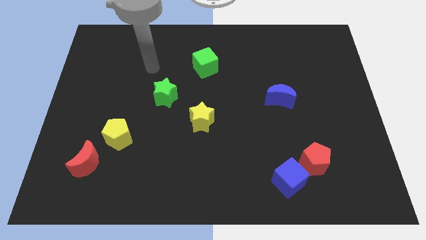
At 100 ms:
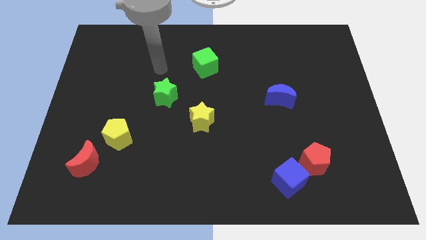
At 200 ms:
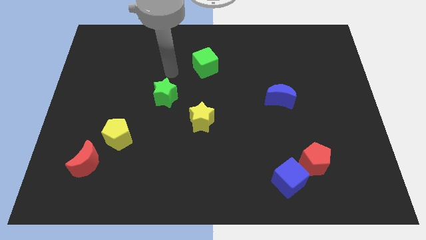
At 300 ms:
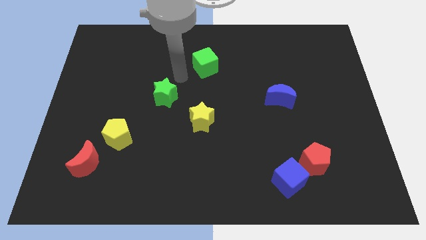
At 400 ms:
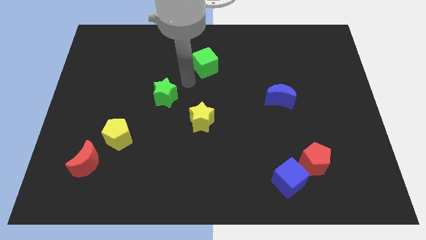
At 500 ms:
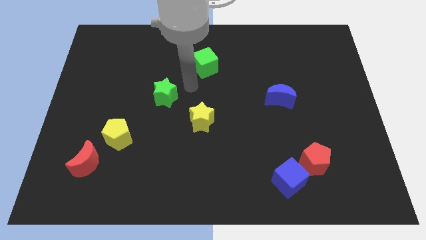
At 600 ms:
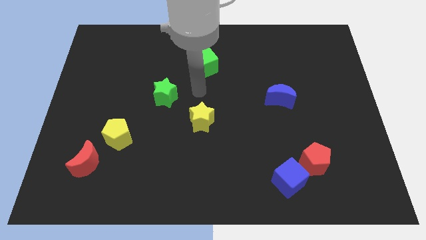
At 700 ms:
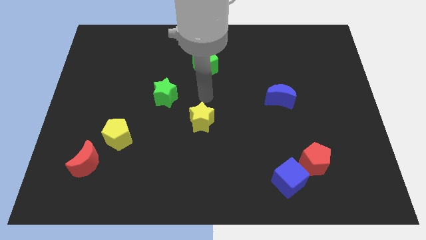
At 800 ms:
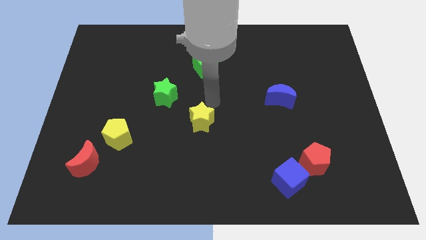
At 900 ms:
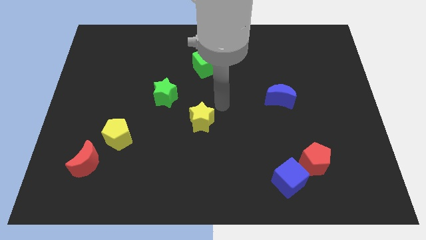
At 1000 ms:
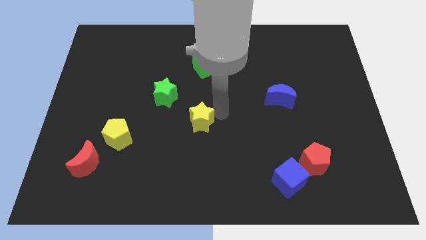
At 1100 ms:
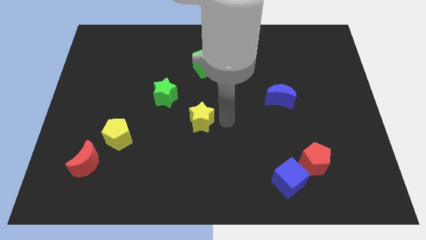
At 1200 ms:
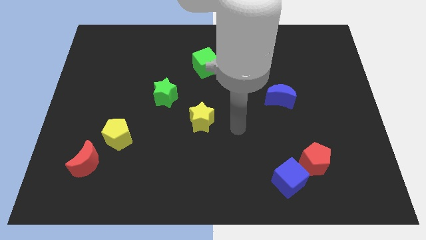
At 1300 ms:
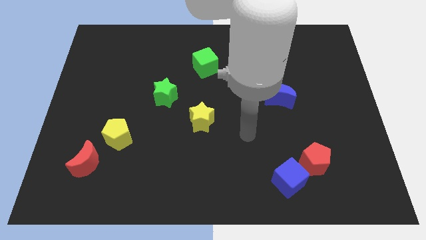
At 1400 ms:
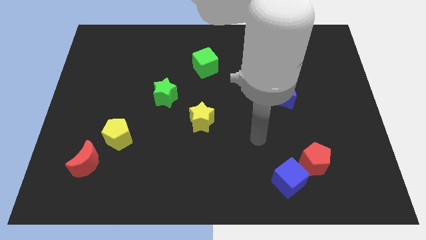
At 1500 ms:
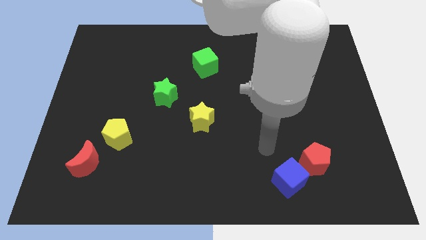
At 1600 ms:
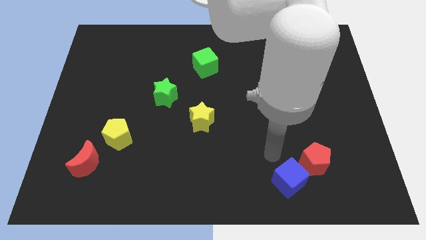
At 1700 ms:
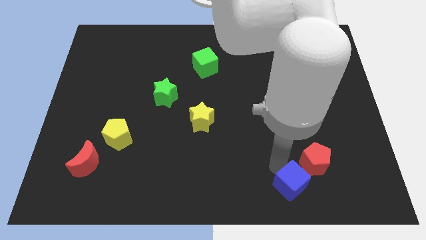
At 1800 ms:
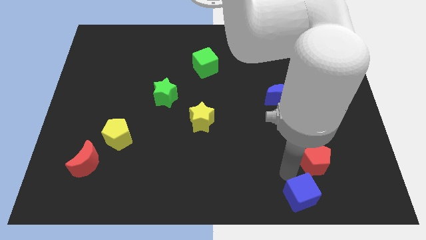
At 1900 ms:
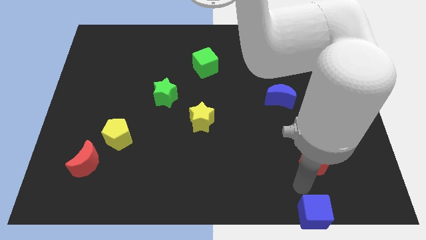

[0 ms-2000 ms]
pull the red pentagon apart from the blue cube

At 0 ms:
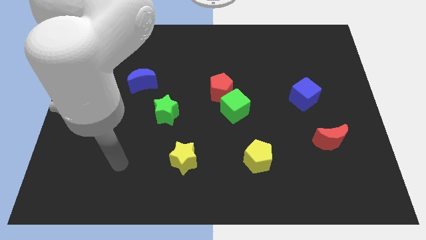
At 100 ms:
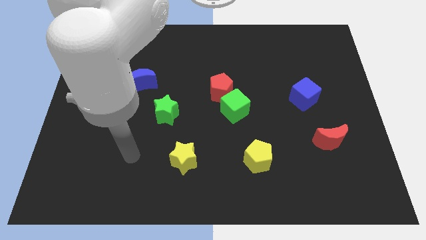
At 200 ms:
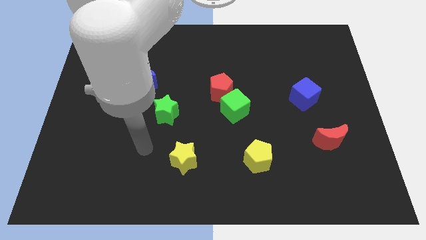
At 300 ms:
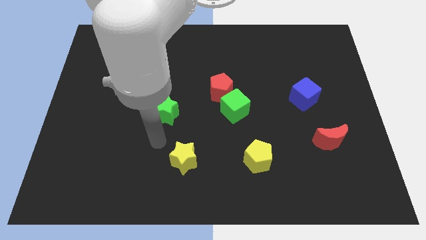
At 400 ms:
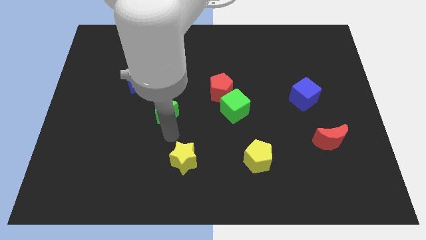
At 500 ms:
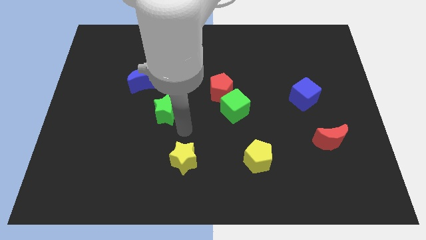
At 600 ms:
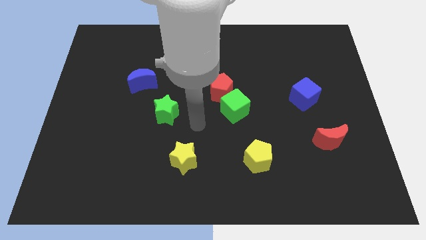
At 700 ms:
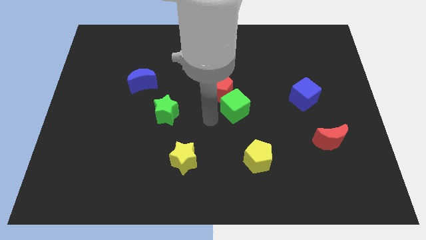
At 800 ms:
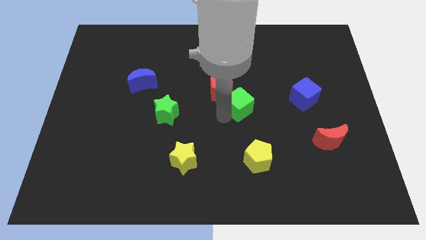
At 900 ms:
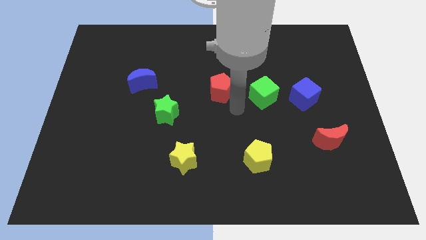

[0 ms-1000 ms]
pull the red pentagon apart from the green cube

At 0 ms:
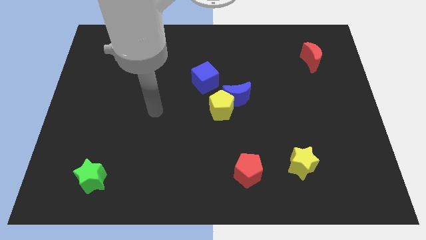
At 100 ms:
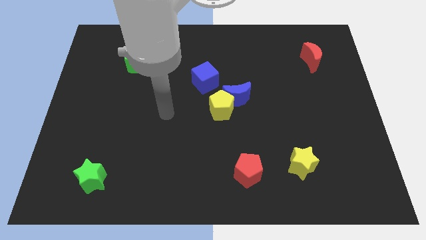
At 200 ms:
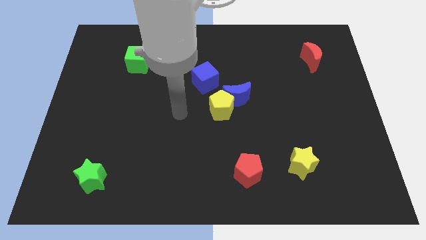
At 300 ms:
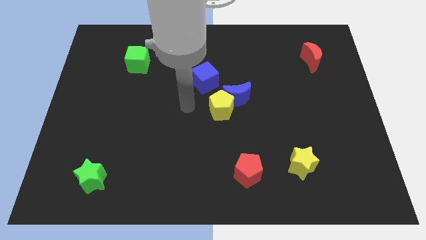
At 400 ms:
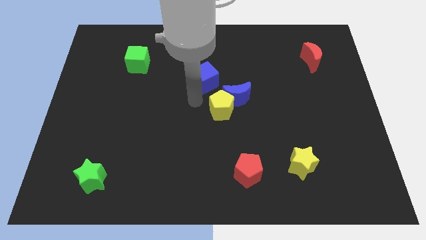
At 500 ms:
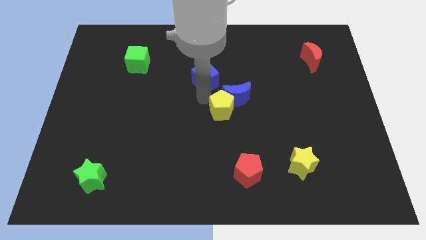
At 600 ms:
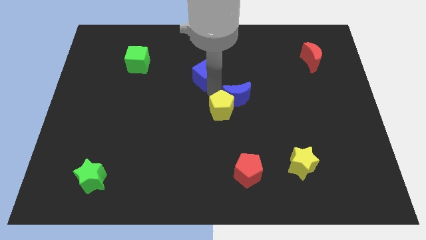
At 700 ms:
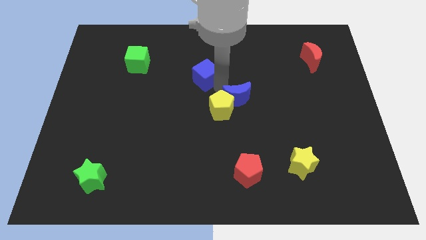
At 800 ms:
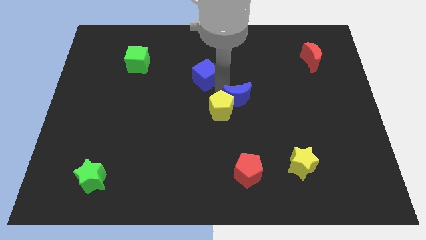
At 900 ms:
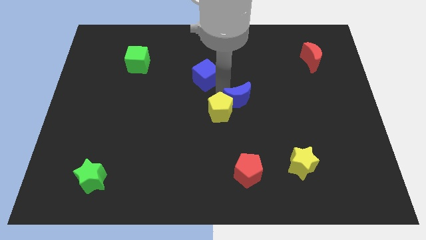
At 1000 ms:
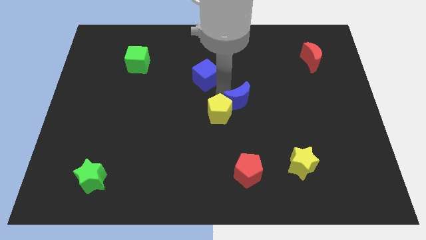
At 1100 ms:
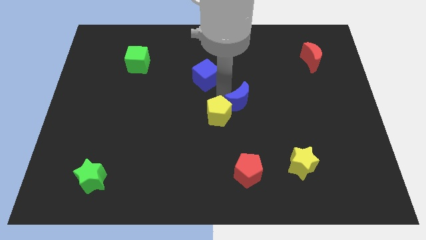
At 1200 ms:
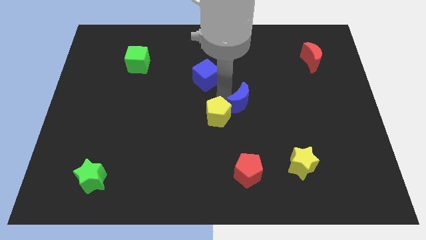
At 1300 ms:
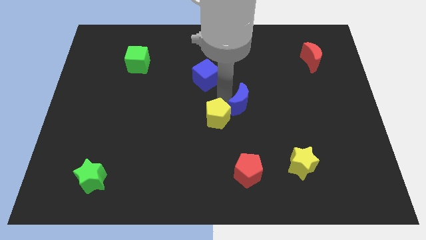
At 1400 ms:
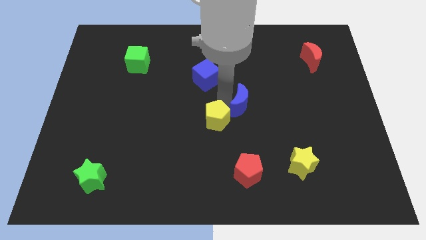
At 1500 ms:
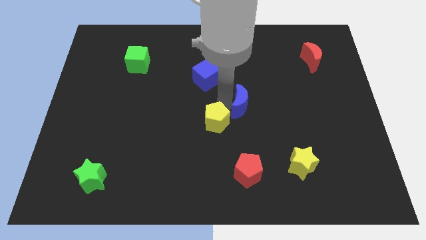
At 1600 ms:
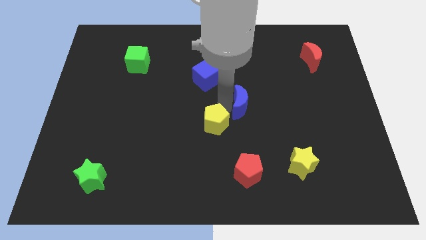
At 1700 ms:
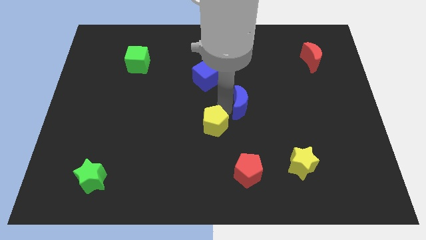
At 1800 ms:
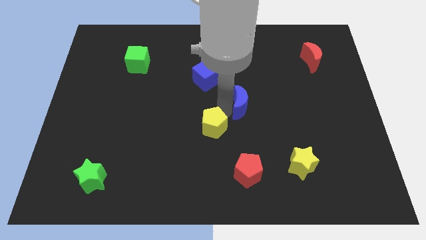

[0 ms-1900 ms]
pull the yellow pentagon apart from the blue moon and blue cube

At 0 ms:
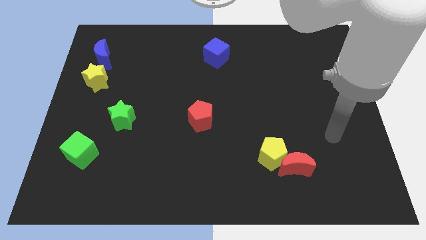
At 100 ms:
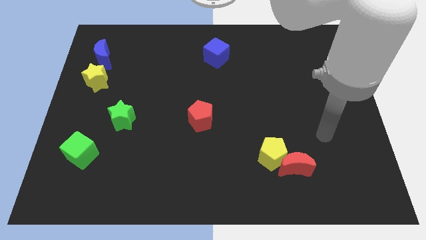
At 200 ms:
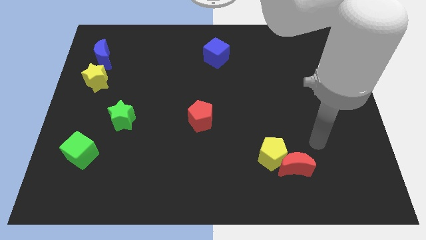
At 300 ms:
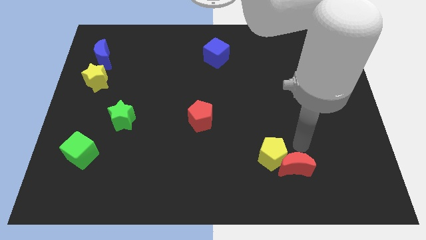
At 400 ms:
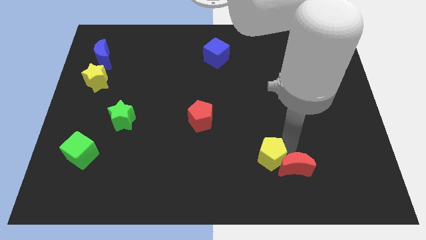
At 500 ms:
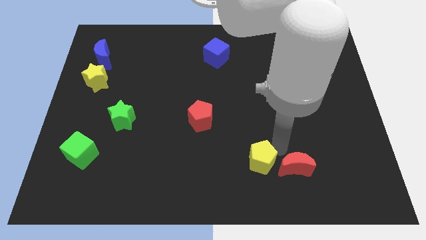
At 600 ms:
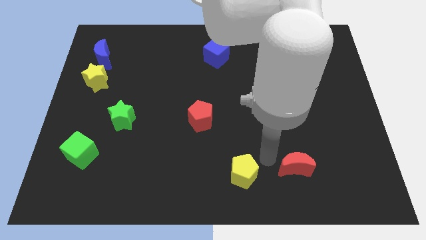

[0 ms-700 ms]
separate the red moon from the yellow pentagon

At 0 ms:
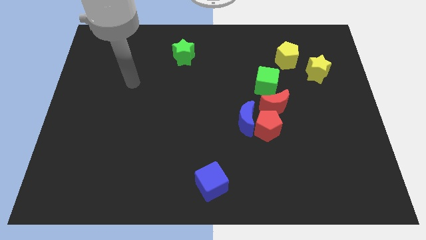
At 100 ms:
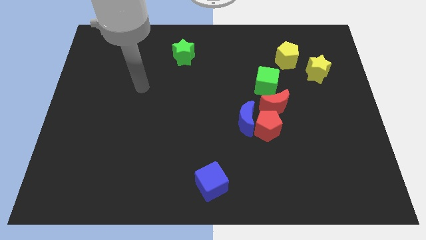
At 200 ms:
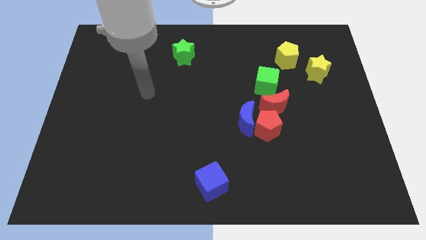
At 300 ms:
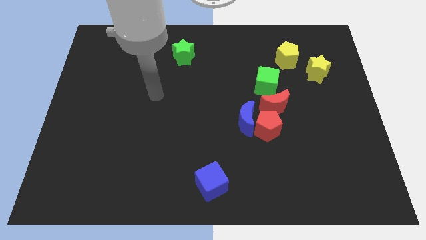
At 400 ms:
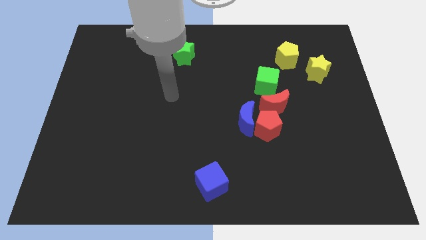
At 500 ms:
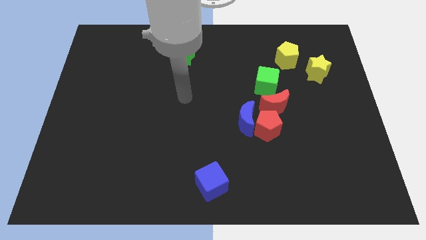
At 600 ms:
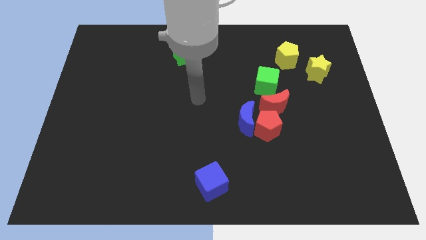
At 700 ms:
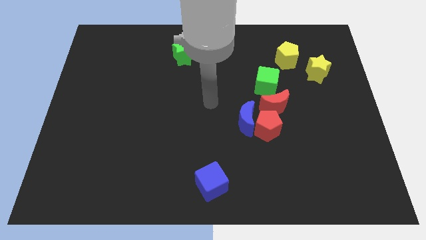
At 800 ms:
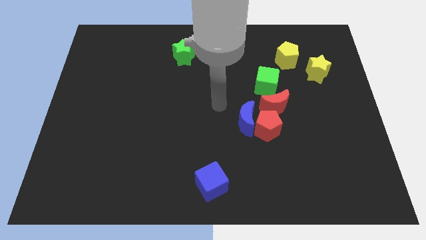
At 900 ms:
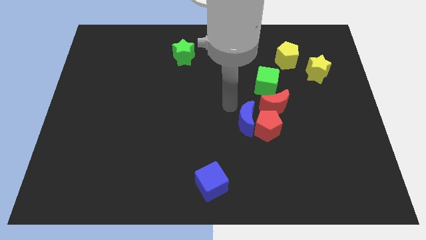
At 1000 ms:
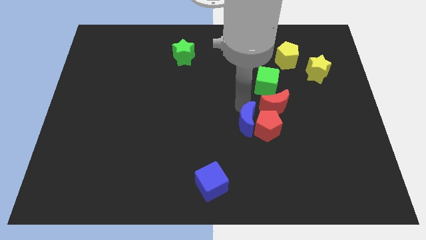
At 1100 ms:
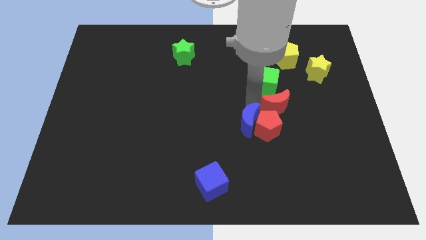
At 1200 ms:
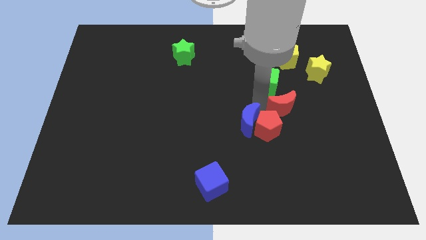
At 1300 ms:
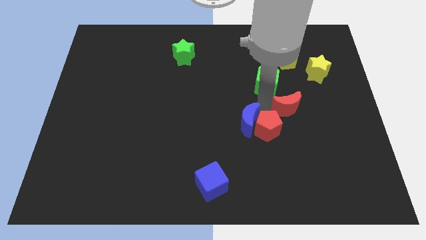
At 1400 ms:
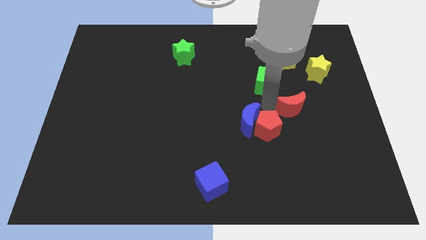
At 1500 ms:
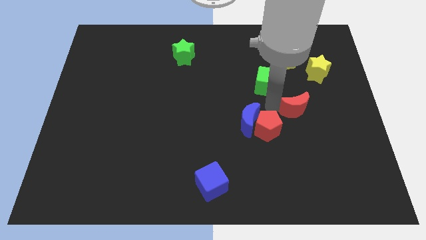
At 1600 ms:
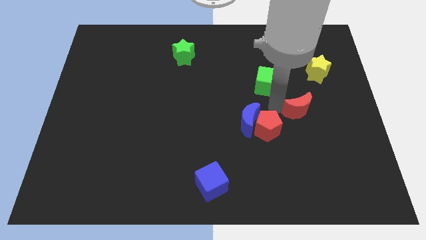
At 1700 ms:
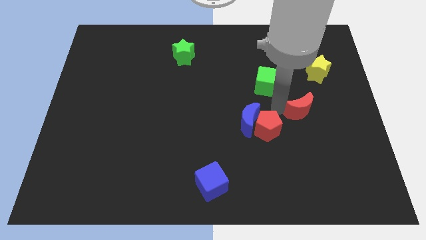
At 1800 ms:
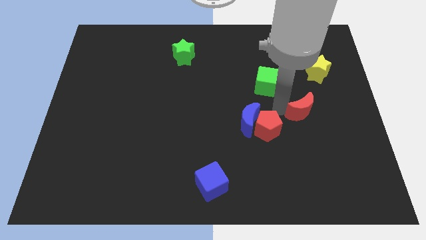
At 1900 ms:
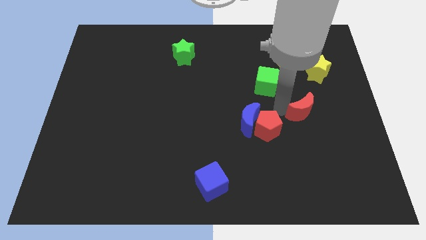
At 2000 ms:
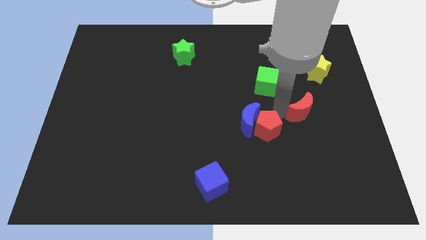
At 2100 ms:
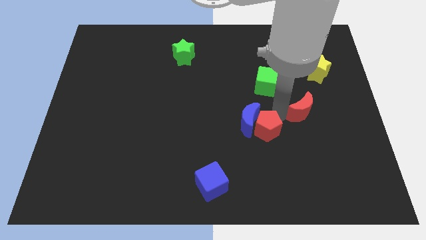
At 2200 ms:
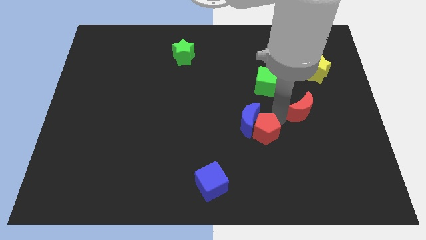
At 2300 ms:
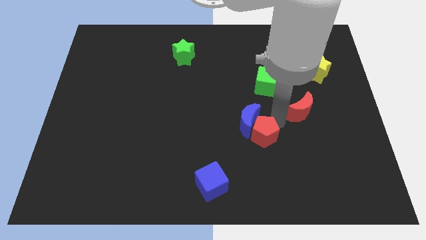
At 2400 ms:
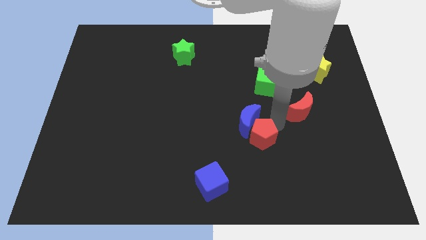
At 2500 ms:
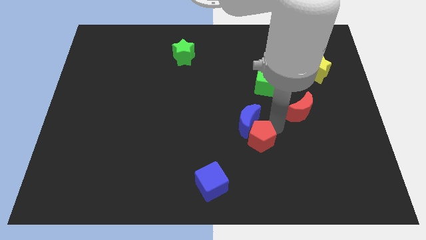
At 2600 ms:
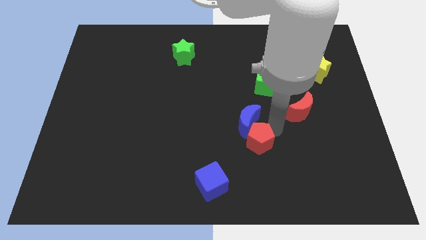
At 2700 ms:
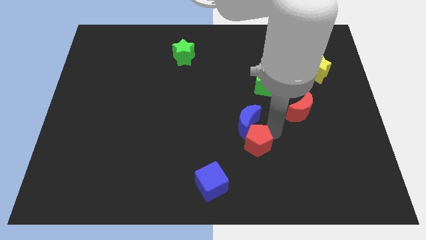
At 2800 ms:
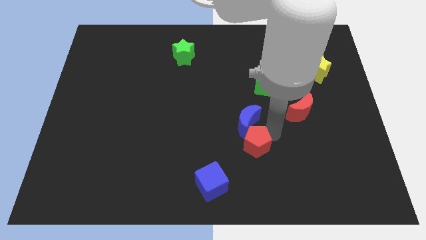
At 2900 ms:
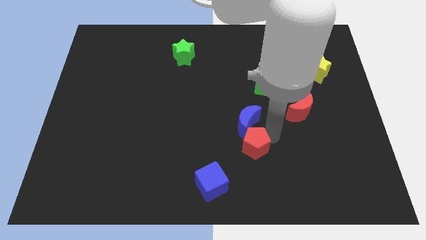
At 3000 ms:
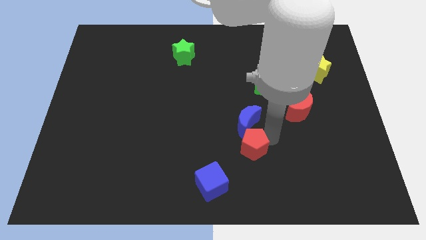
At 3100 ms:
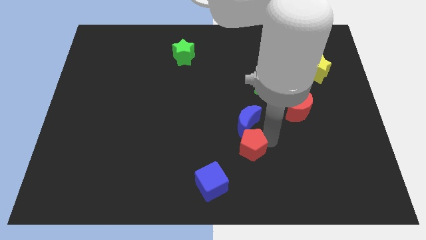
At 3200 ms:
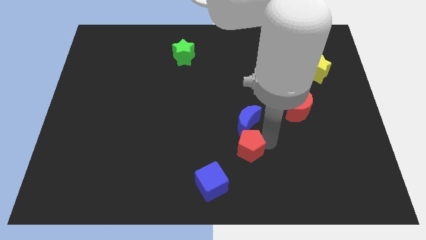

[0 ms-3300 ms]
separate the red pentagon from the blue moon and red moon

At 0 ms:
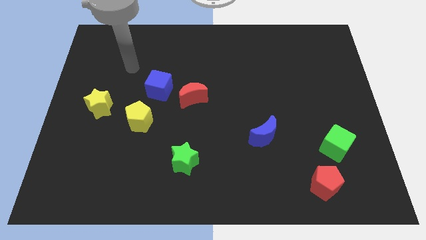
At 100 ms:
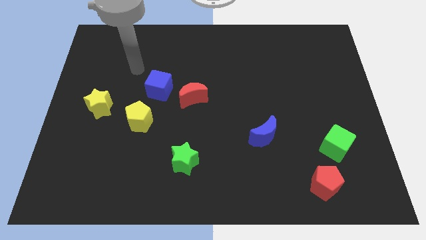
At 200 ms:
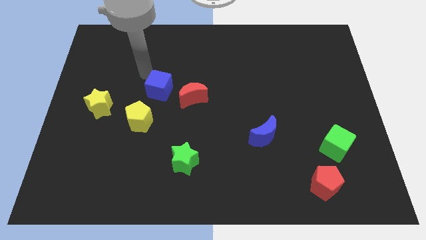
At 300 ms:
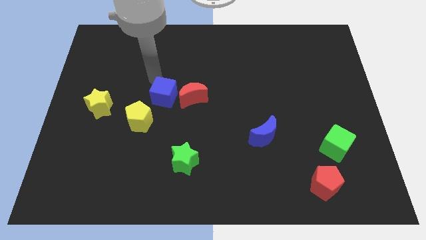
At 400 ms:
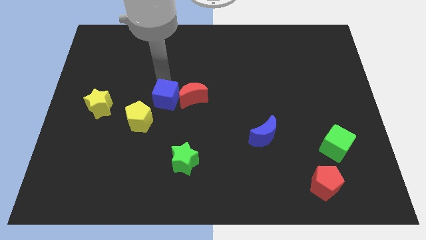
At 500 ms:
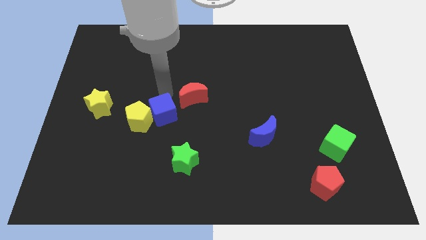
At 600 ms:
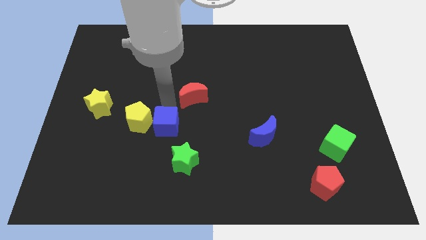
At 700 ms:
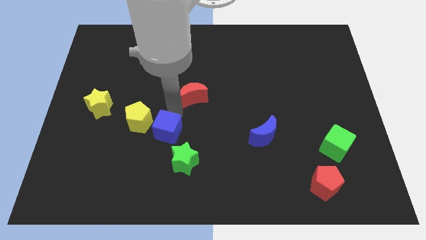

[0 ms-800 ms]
separate the red moon from the blue cube
